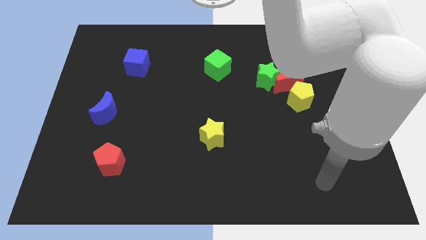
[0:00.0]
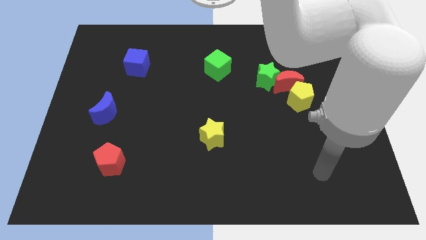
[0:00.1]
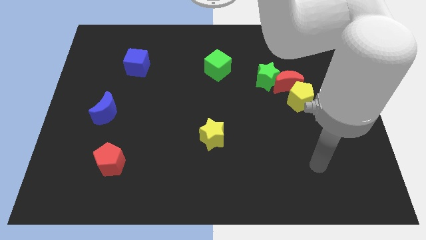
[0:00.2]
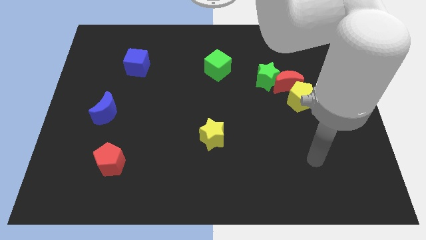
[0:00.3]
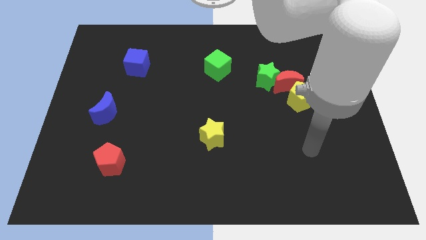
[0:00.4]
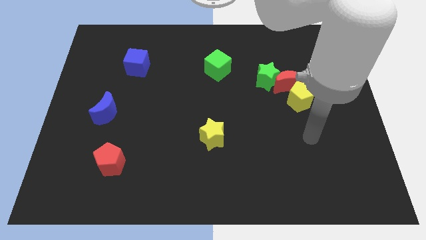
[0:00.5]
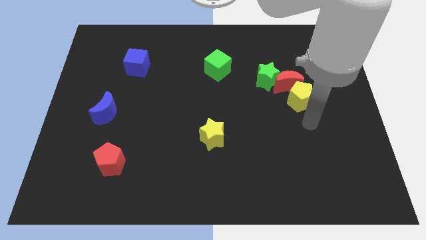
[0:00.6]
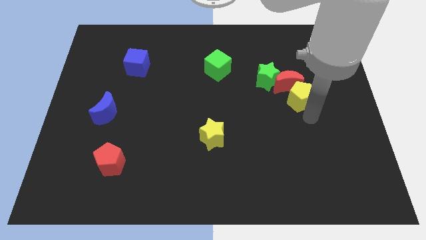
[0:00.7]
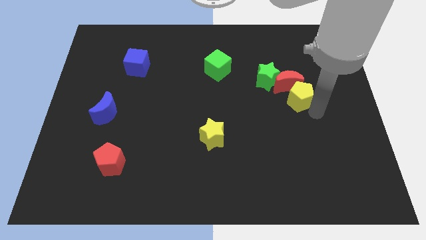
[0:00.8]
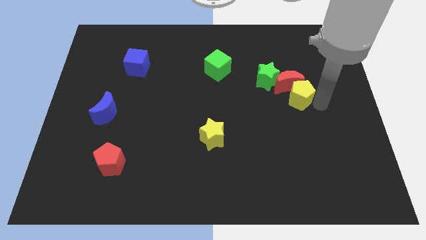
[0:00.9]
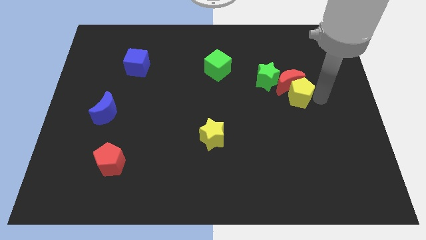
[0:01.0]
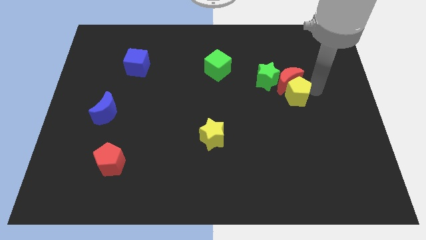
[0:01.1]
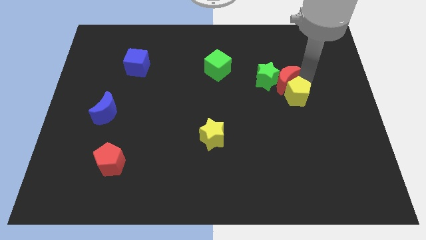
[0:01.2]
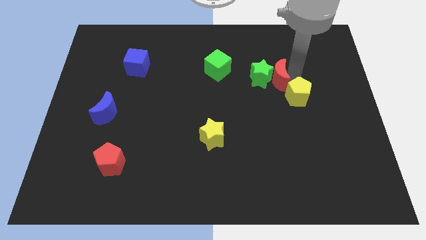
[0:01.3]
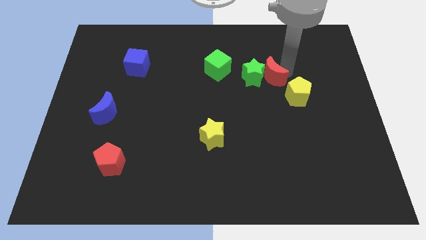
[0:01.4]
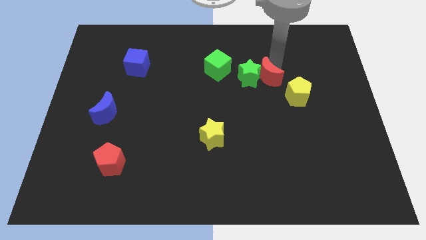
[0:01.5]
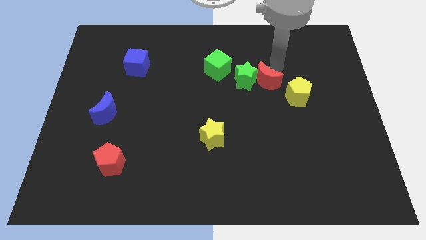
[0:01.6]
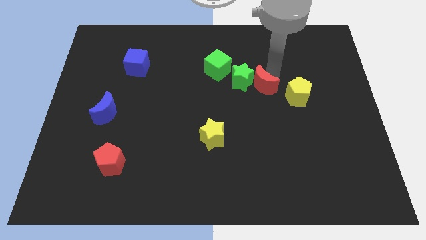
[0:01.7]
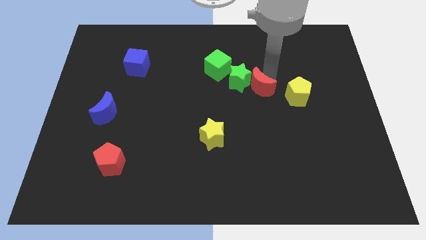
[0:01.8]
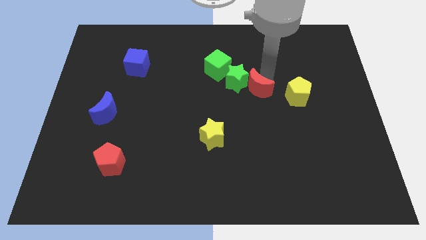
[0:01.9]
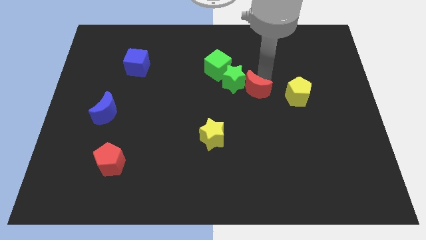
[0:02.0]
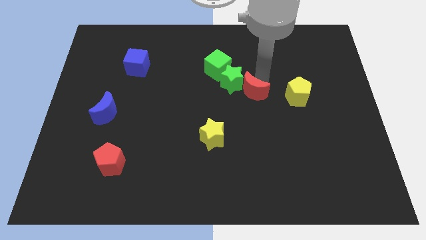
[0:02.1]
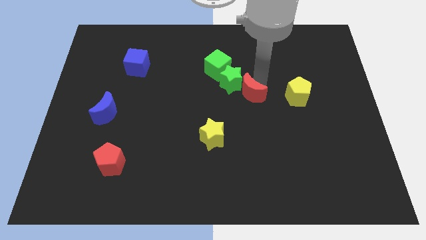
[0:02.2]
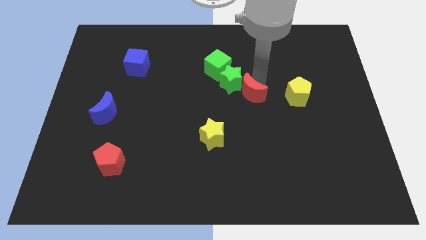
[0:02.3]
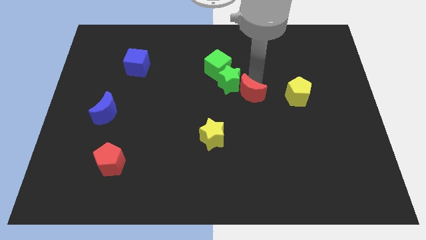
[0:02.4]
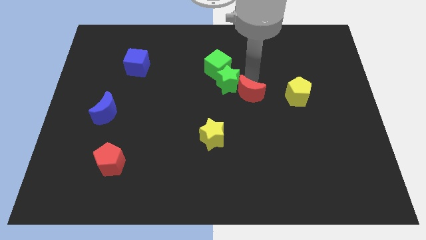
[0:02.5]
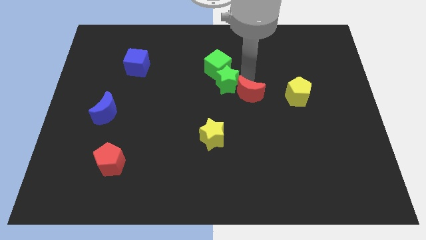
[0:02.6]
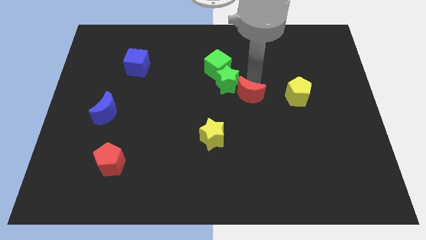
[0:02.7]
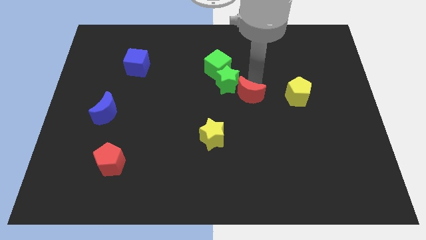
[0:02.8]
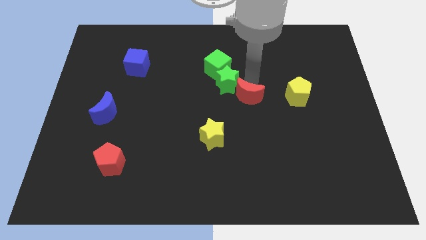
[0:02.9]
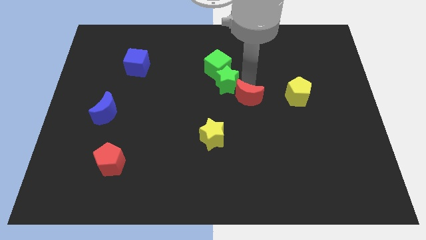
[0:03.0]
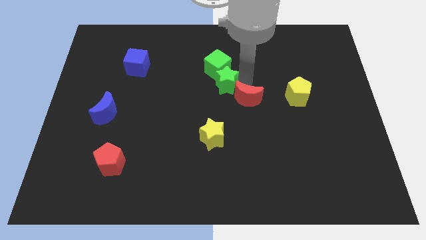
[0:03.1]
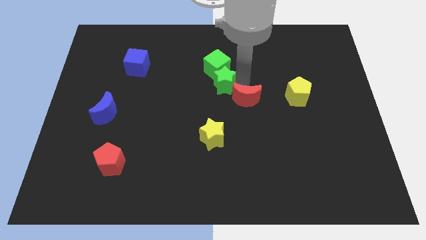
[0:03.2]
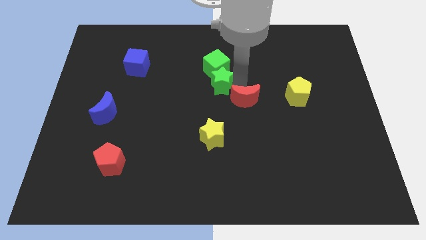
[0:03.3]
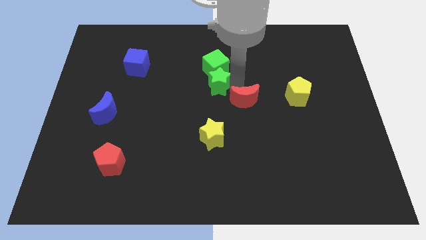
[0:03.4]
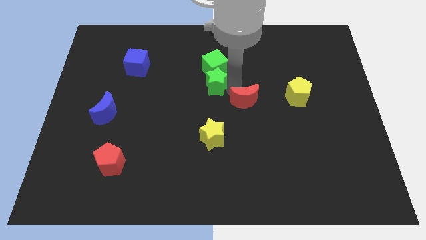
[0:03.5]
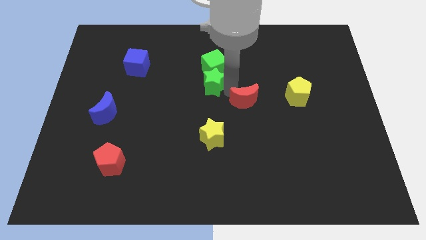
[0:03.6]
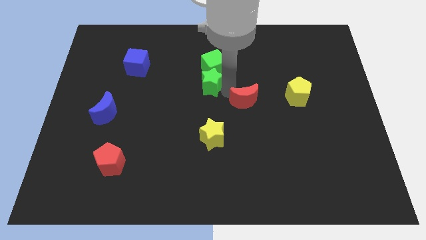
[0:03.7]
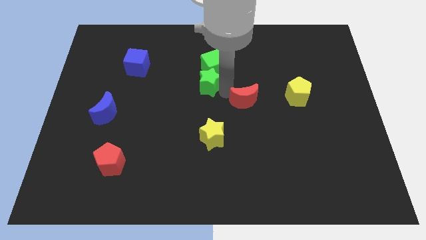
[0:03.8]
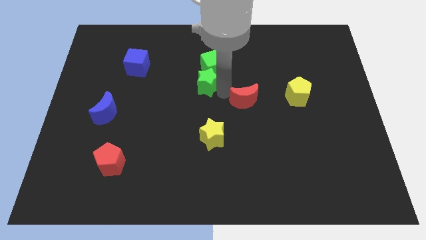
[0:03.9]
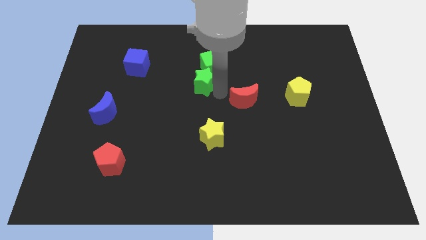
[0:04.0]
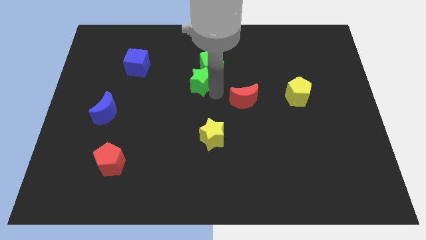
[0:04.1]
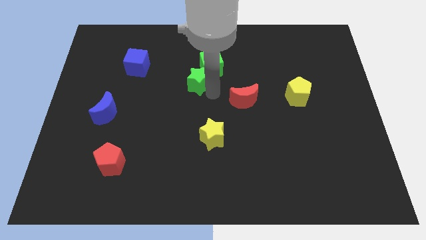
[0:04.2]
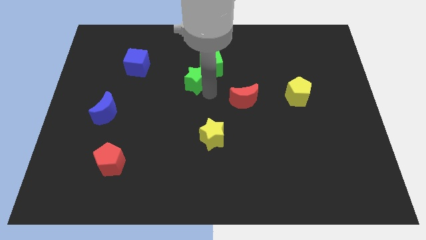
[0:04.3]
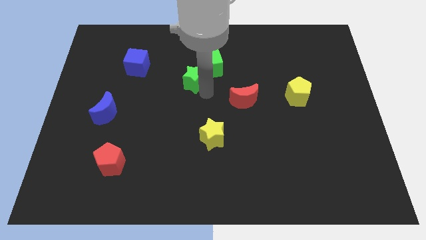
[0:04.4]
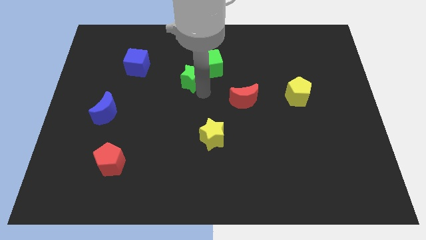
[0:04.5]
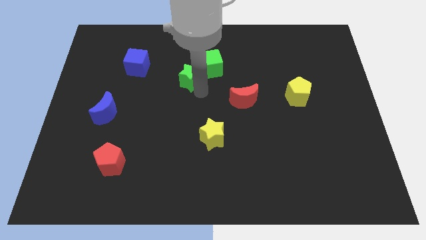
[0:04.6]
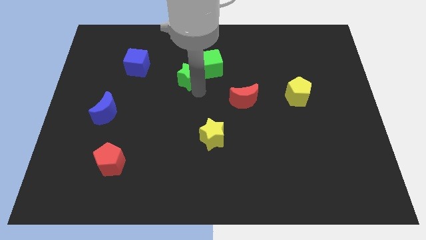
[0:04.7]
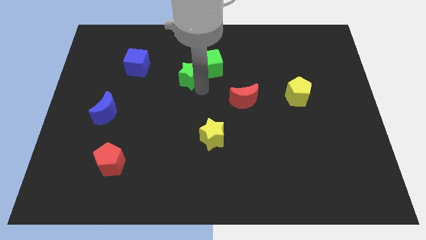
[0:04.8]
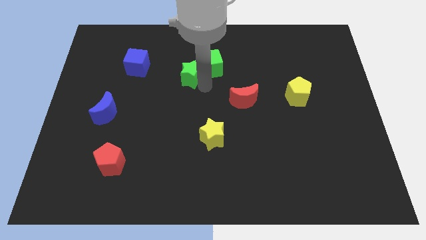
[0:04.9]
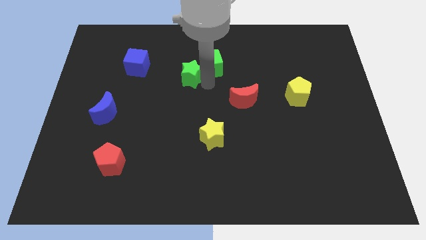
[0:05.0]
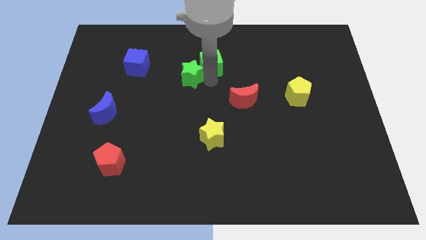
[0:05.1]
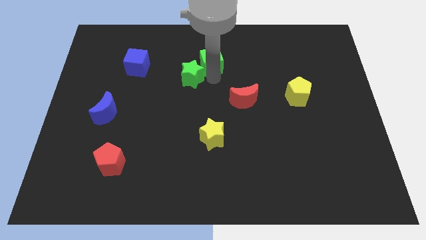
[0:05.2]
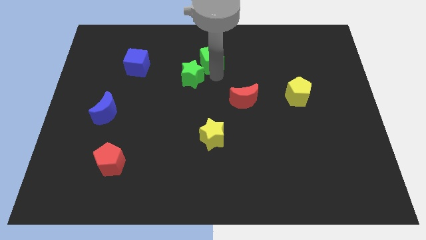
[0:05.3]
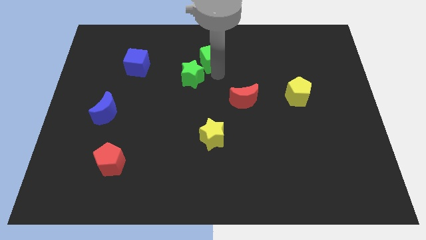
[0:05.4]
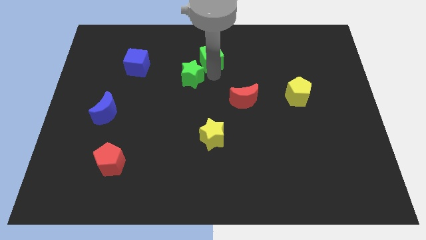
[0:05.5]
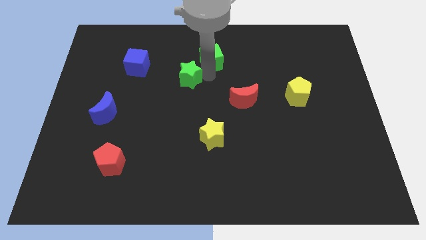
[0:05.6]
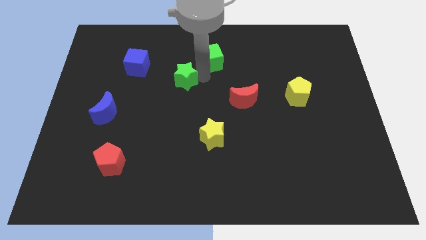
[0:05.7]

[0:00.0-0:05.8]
move the green star left

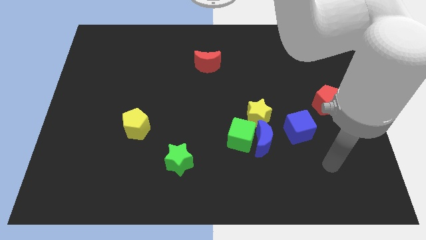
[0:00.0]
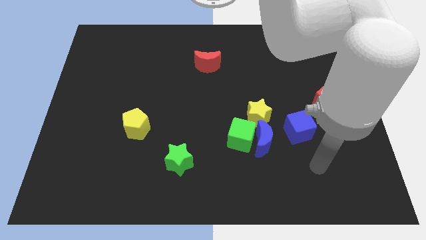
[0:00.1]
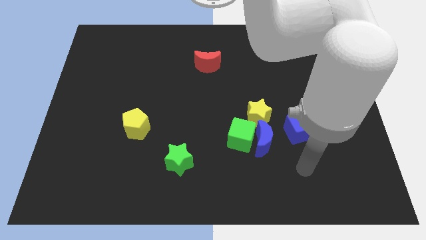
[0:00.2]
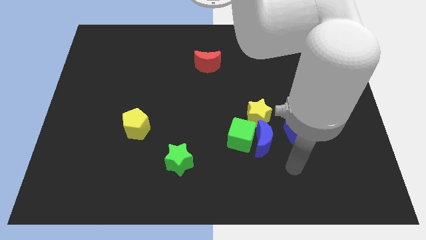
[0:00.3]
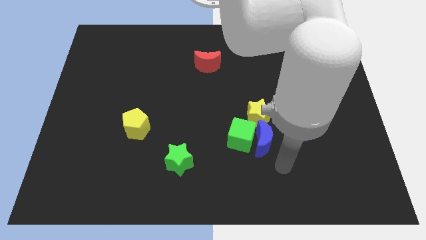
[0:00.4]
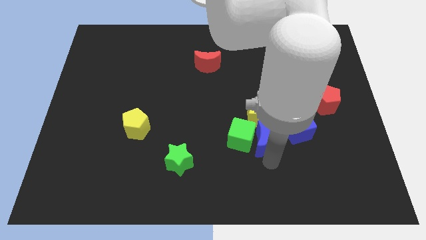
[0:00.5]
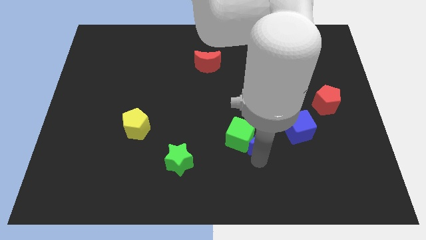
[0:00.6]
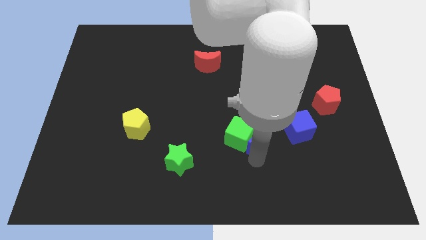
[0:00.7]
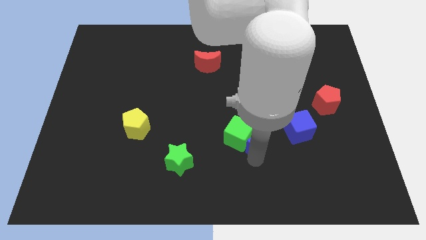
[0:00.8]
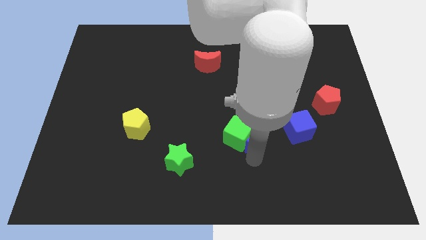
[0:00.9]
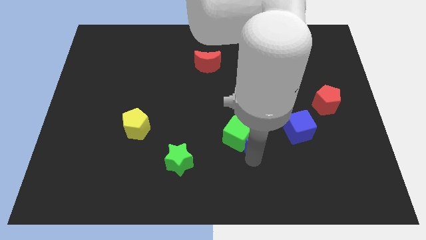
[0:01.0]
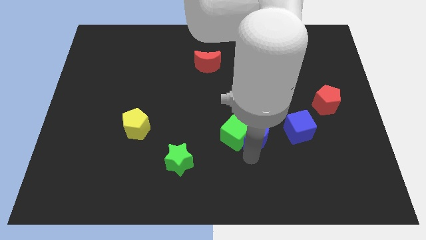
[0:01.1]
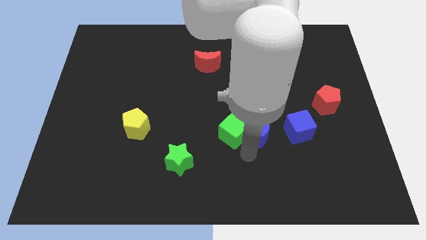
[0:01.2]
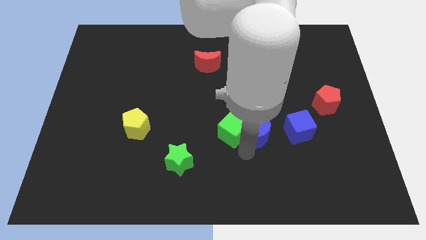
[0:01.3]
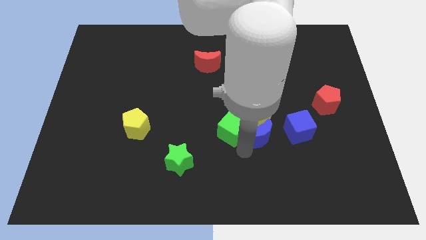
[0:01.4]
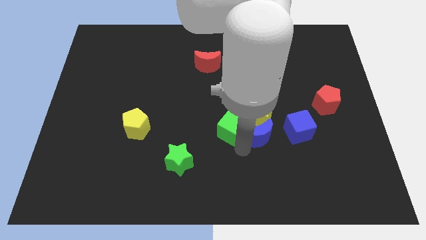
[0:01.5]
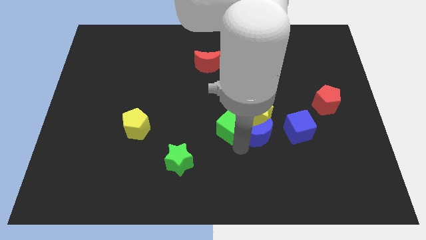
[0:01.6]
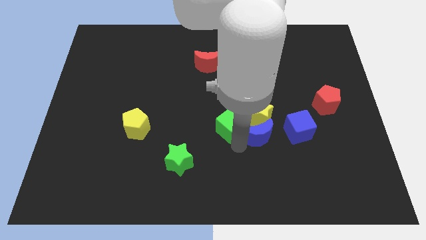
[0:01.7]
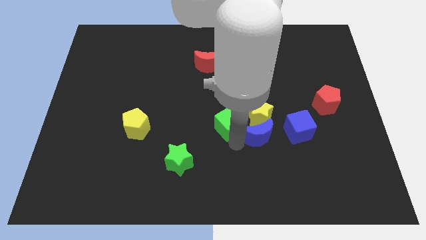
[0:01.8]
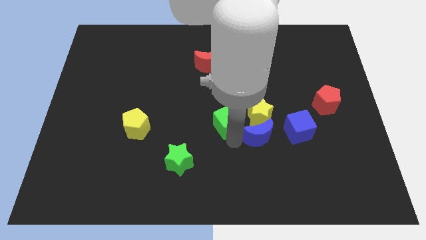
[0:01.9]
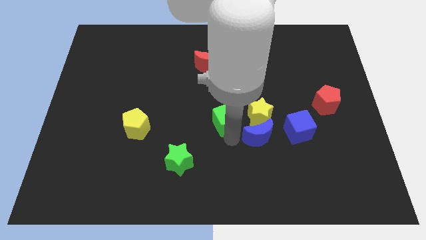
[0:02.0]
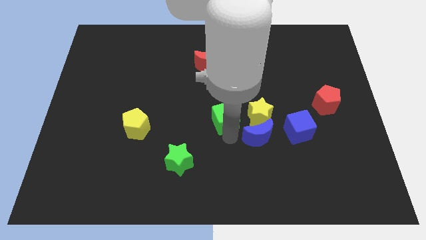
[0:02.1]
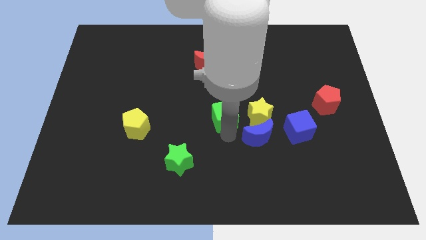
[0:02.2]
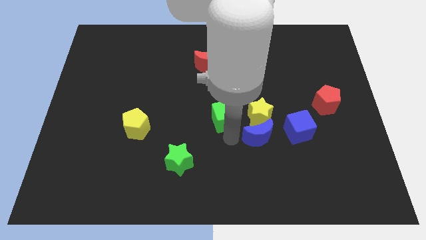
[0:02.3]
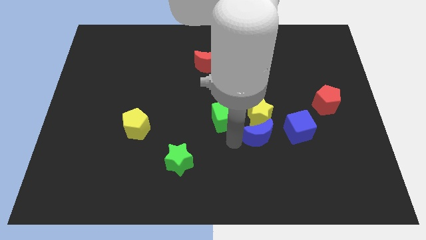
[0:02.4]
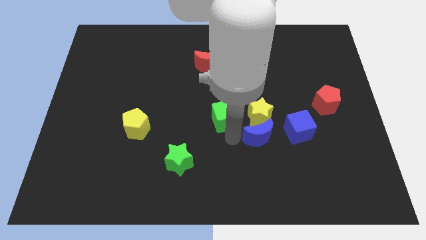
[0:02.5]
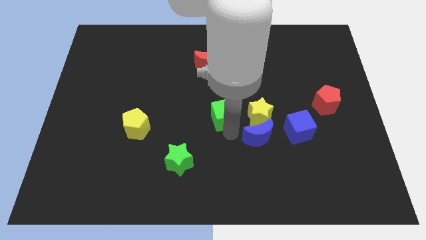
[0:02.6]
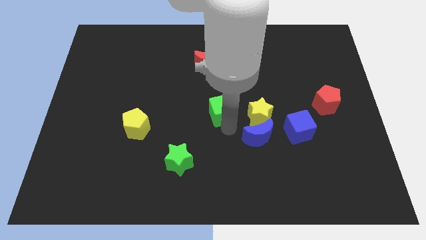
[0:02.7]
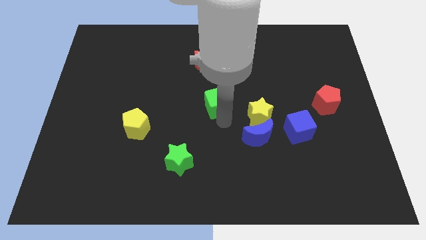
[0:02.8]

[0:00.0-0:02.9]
slide the green cube somewhat upwards
